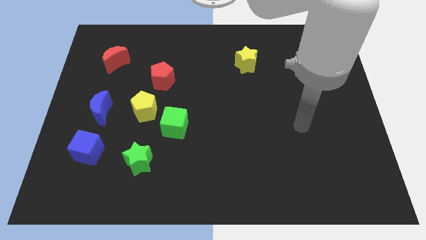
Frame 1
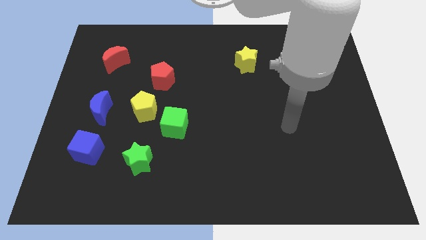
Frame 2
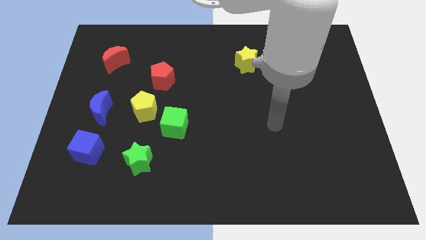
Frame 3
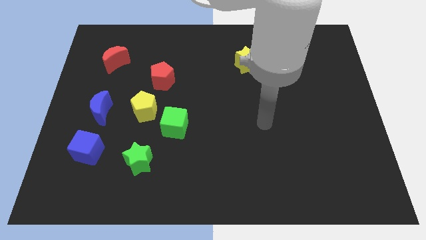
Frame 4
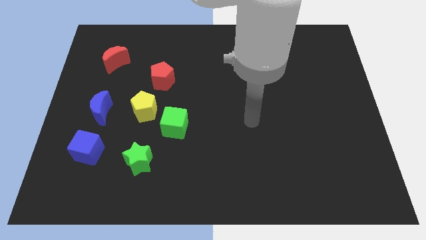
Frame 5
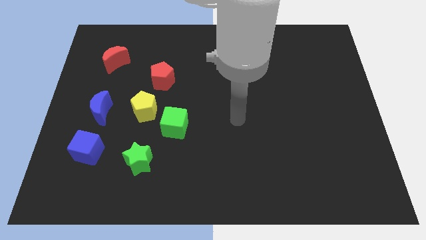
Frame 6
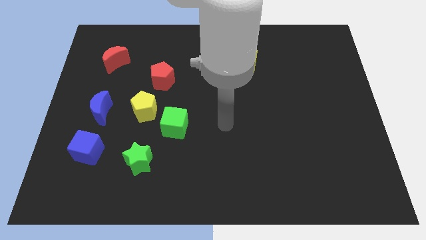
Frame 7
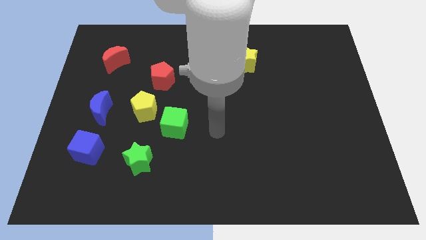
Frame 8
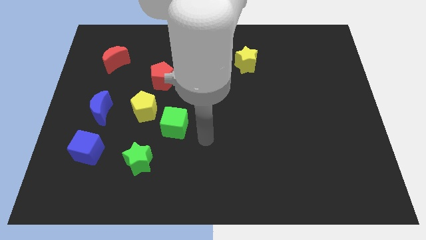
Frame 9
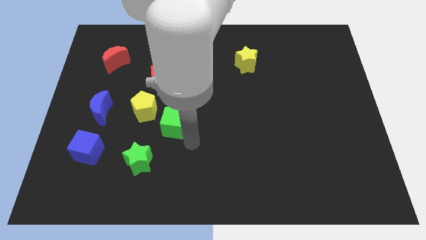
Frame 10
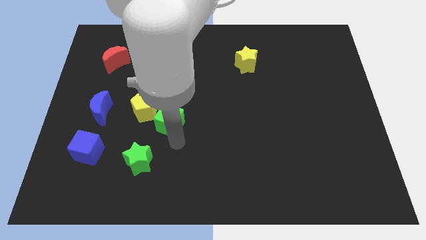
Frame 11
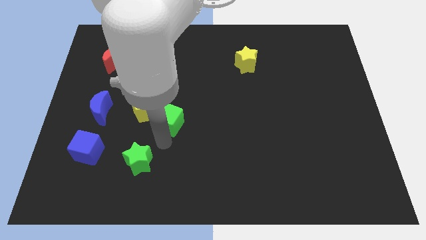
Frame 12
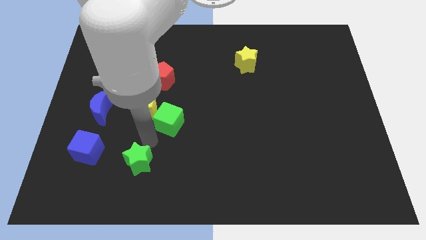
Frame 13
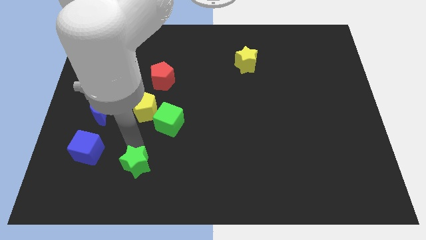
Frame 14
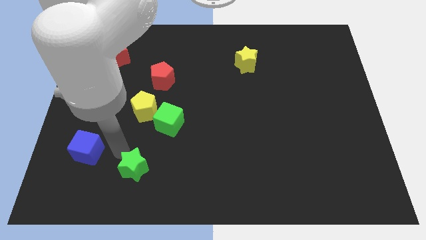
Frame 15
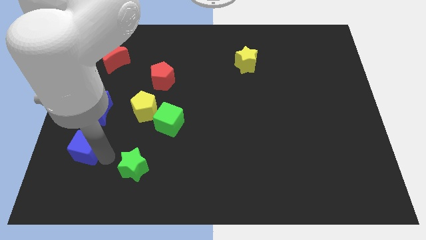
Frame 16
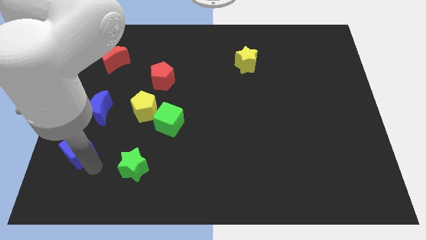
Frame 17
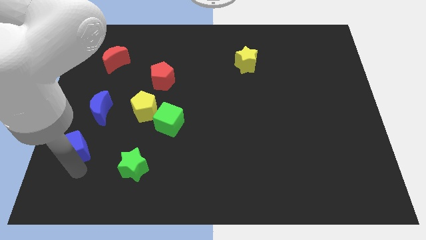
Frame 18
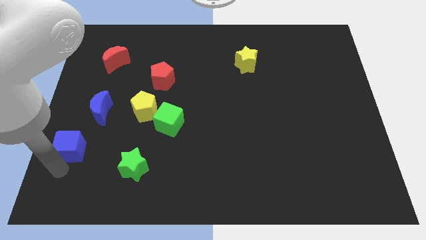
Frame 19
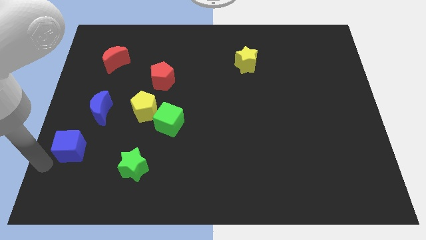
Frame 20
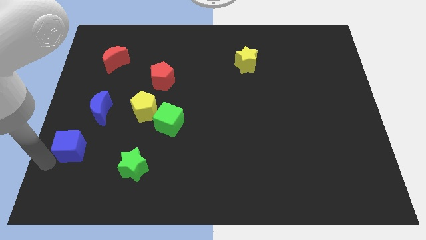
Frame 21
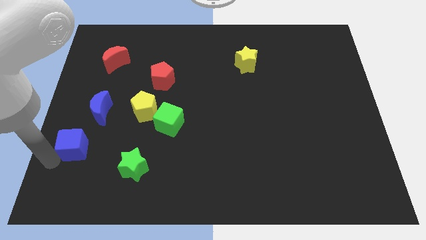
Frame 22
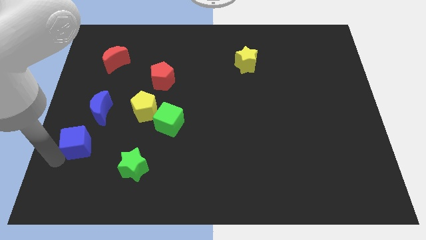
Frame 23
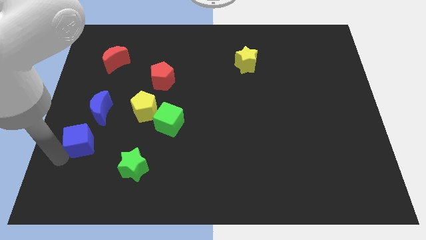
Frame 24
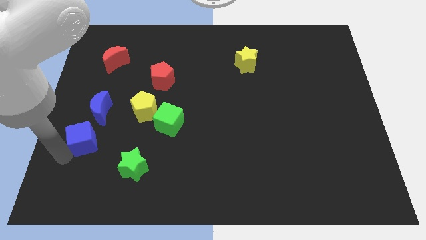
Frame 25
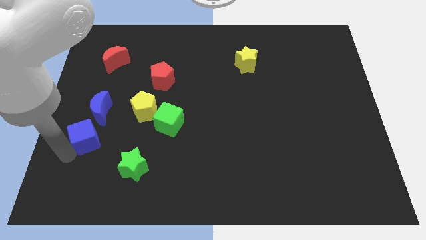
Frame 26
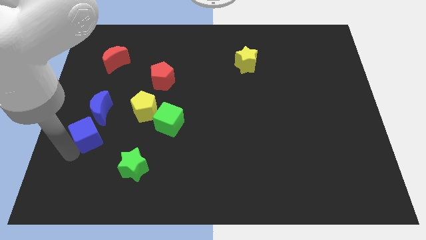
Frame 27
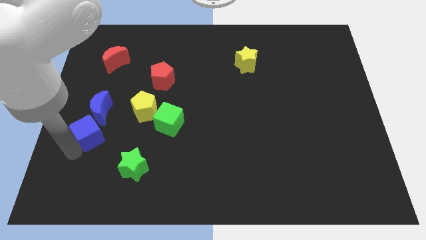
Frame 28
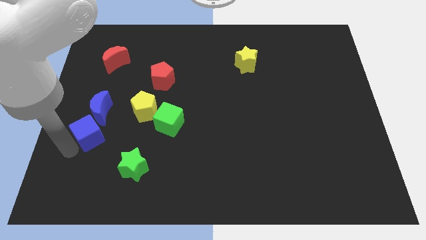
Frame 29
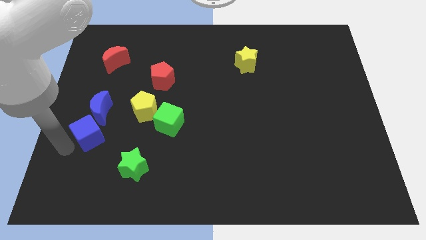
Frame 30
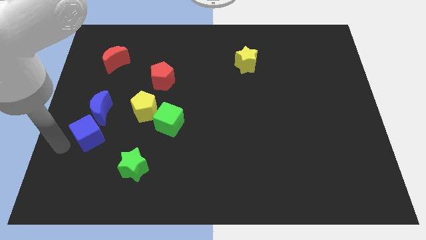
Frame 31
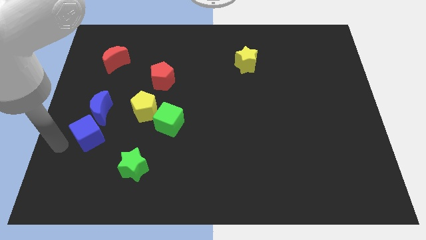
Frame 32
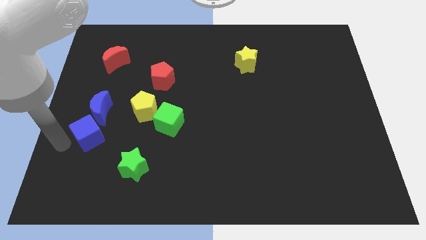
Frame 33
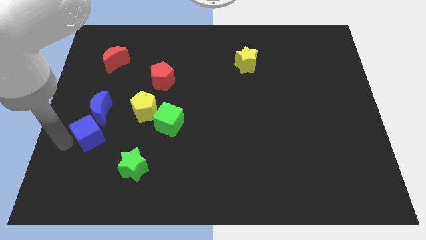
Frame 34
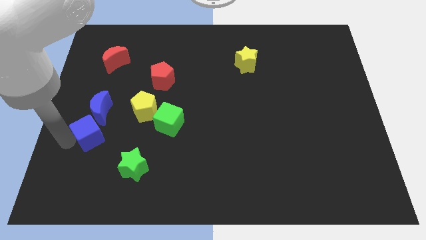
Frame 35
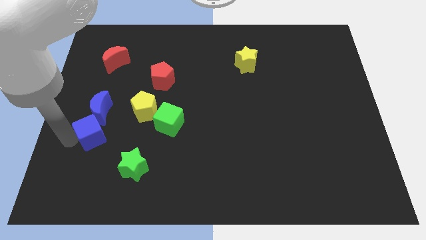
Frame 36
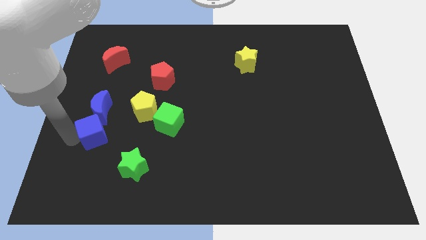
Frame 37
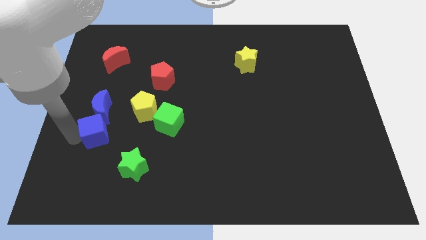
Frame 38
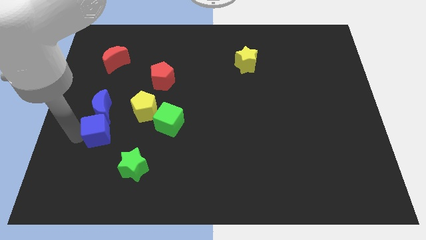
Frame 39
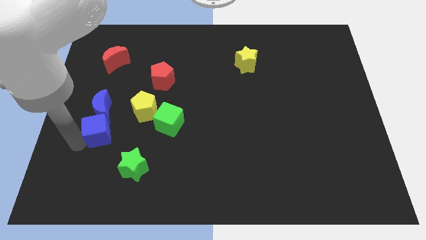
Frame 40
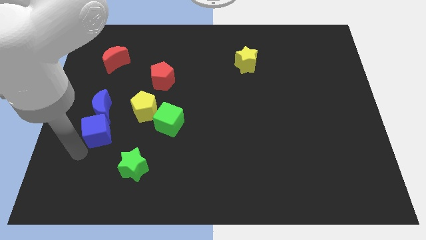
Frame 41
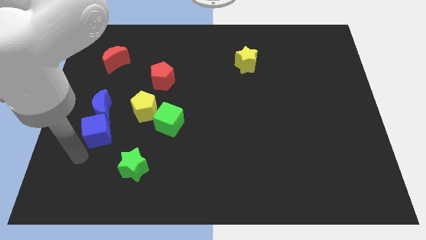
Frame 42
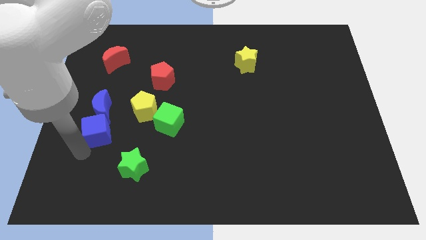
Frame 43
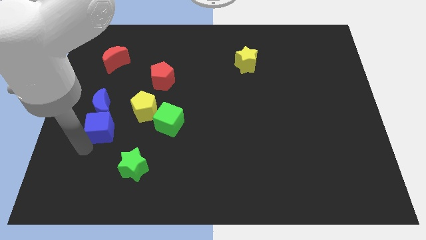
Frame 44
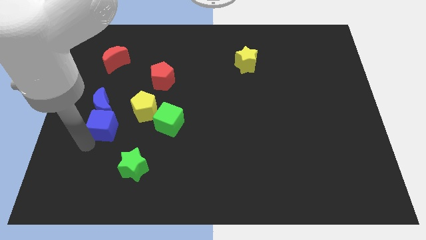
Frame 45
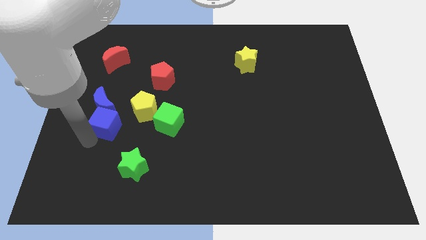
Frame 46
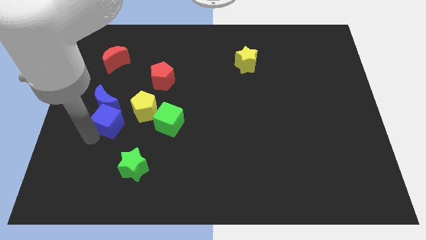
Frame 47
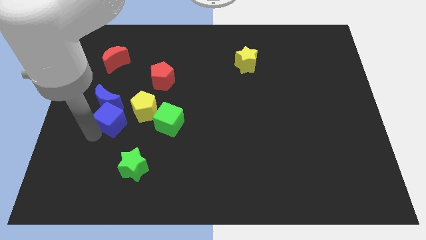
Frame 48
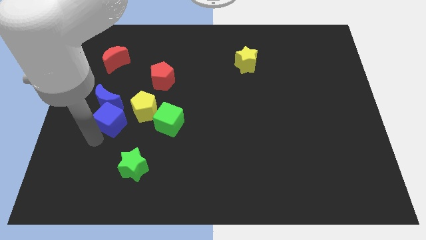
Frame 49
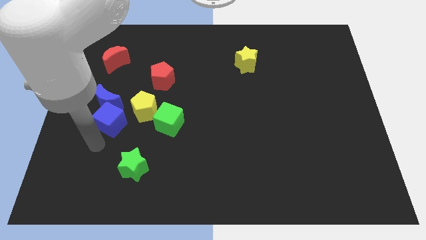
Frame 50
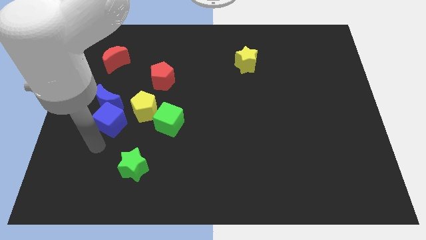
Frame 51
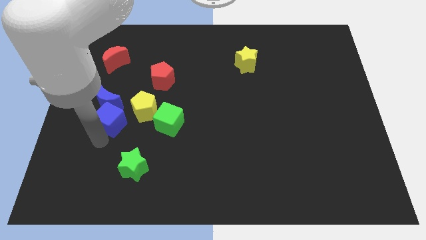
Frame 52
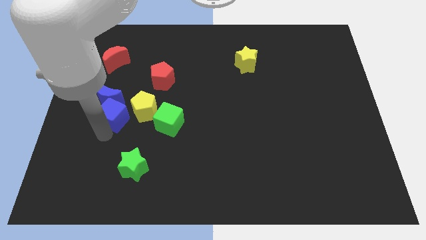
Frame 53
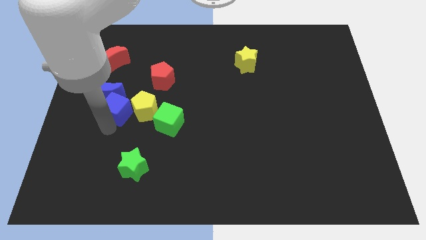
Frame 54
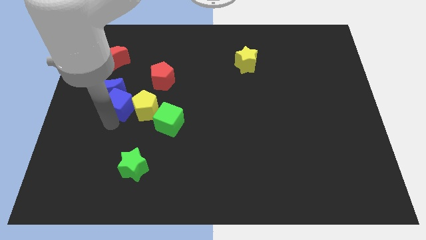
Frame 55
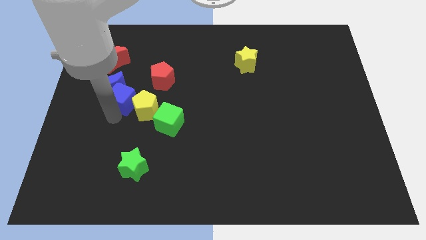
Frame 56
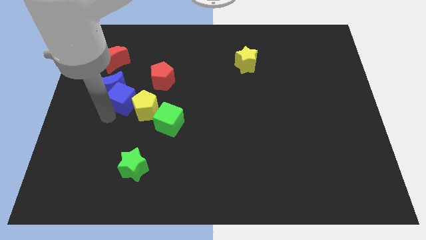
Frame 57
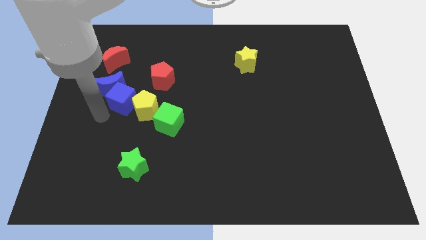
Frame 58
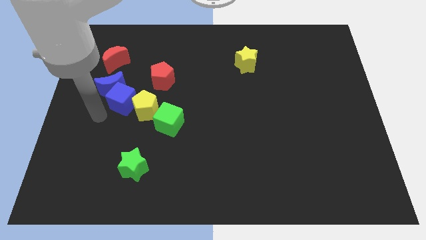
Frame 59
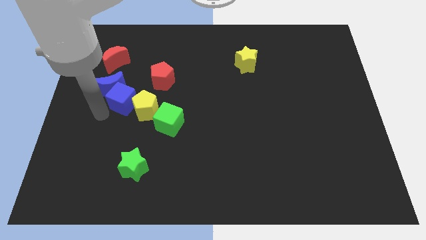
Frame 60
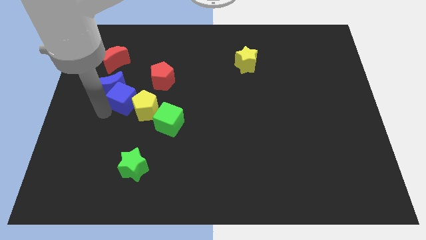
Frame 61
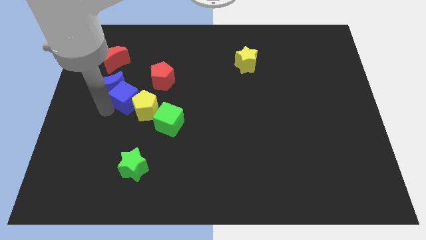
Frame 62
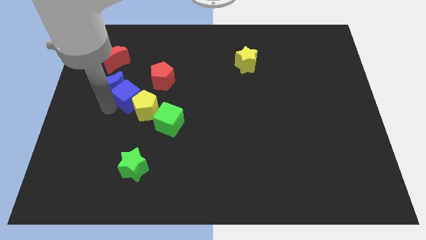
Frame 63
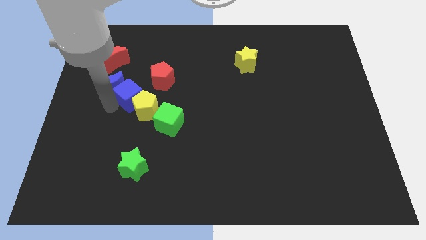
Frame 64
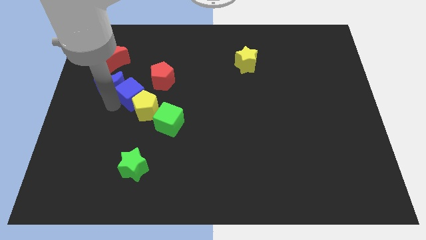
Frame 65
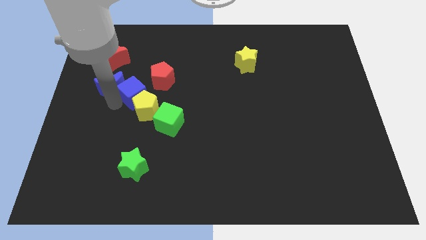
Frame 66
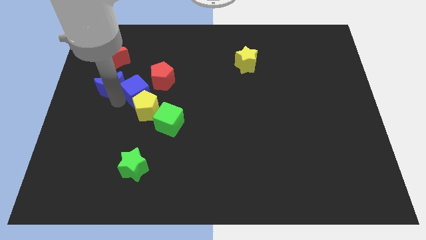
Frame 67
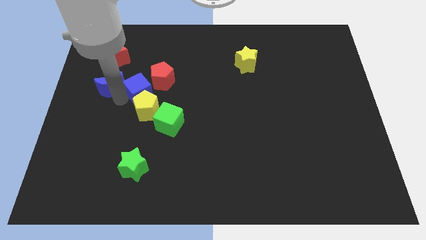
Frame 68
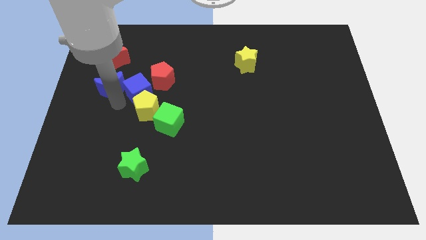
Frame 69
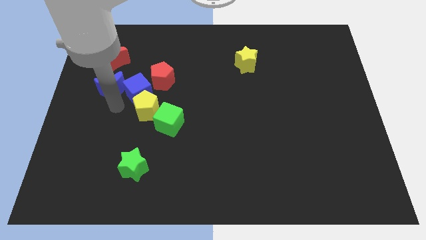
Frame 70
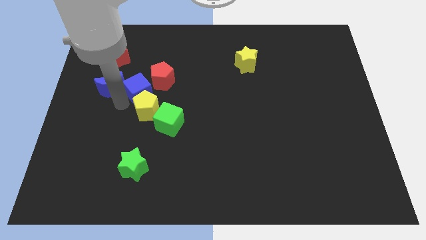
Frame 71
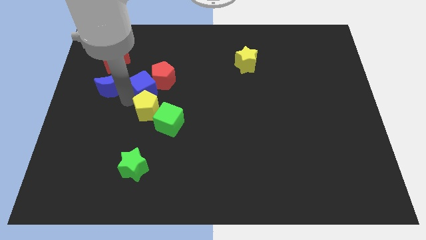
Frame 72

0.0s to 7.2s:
slide the blue cube towards the red pentagon

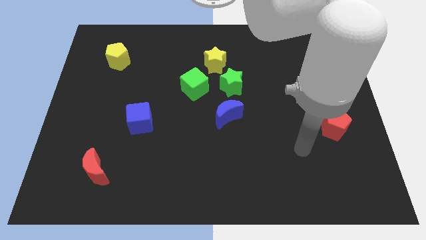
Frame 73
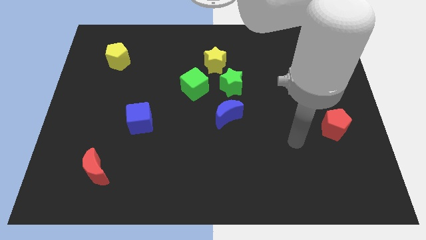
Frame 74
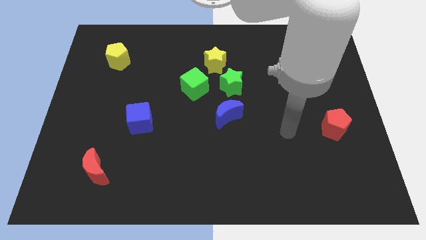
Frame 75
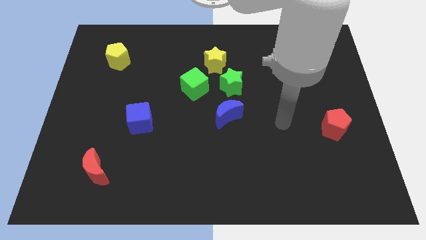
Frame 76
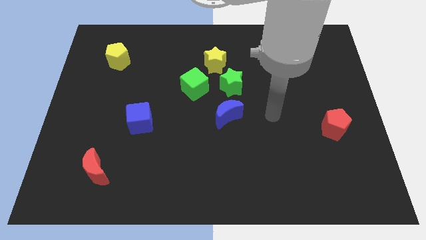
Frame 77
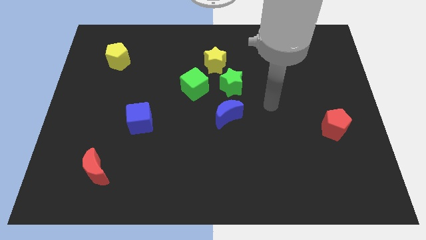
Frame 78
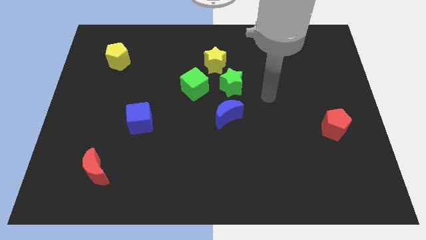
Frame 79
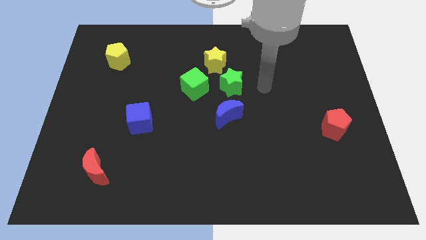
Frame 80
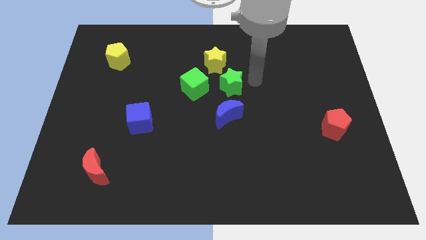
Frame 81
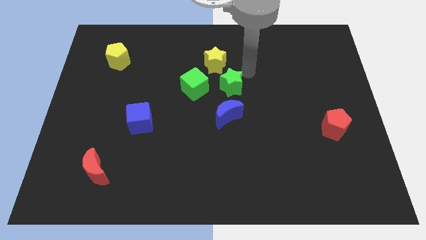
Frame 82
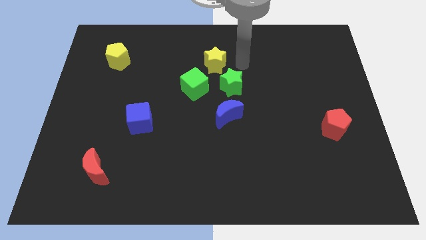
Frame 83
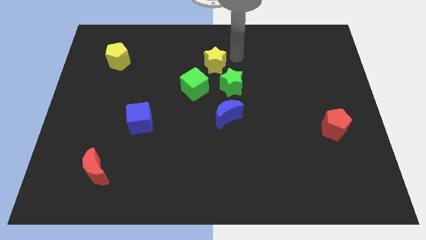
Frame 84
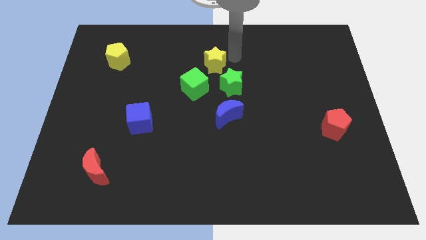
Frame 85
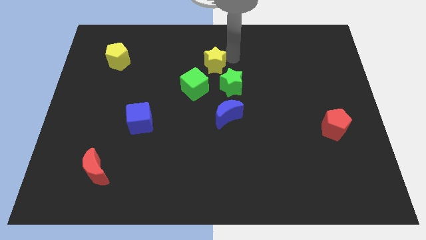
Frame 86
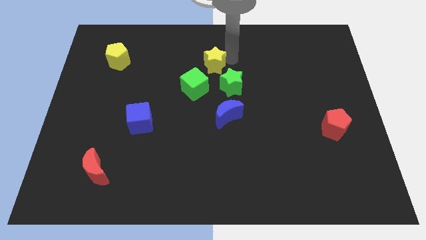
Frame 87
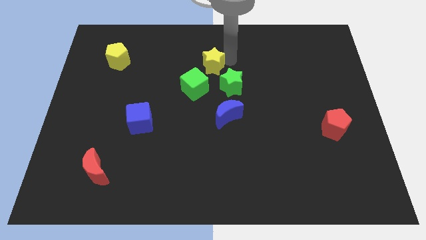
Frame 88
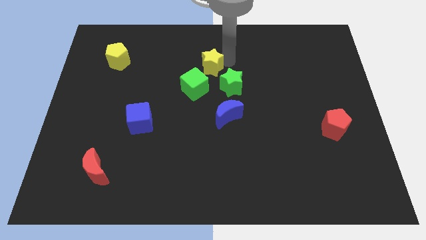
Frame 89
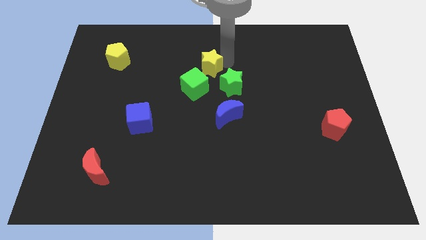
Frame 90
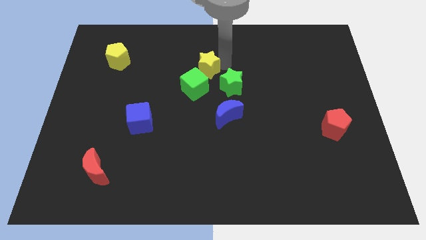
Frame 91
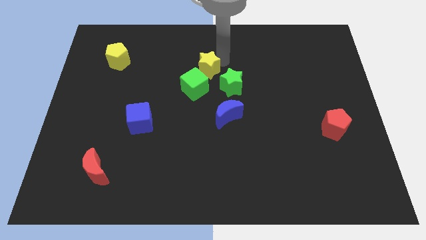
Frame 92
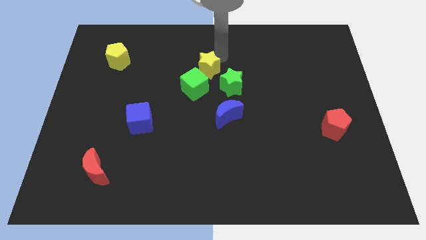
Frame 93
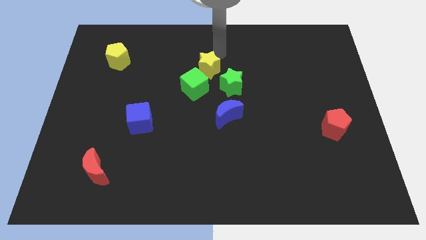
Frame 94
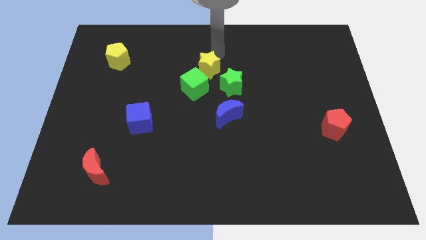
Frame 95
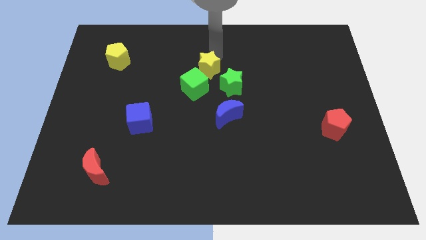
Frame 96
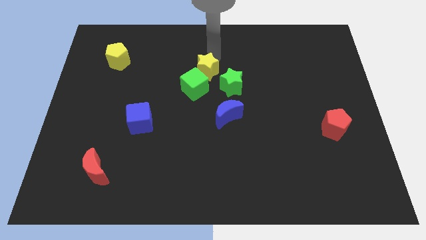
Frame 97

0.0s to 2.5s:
put the yellow star to the green cube
